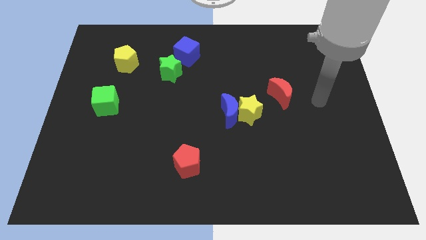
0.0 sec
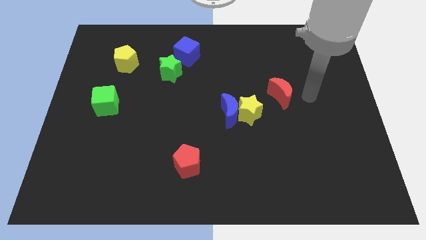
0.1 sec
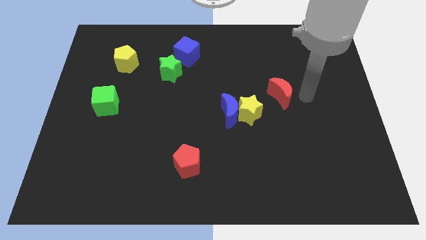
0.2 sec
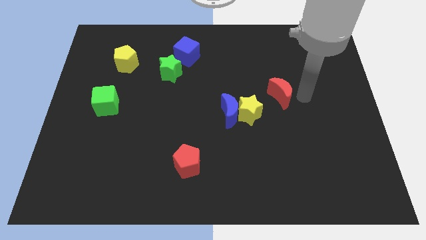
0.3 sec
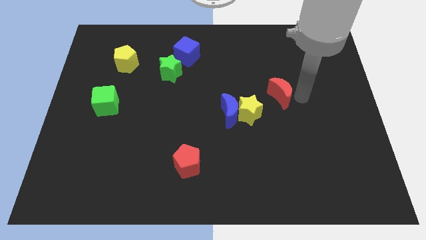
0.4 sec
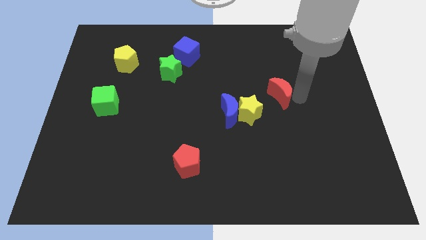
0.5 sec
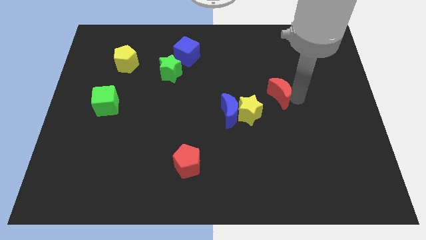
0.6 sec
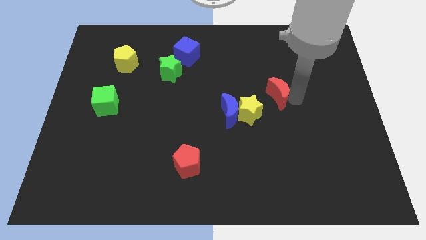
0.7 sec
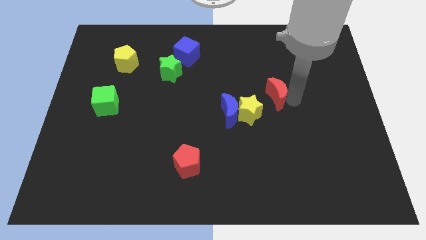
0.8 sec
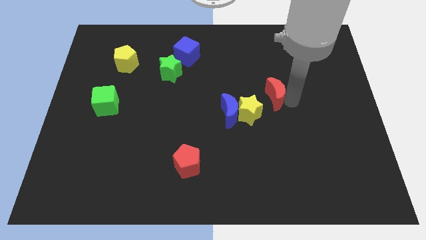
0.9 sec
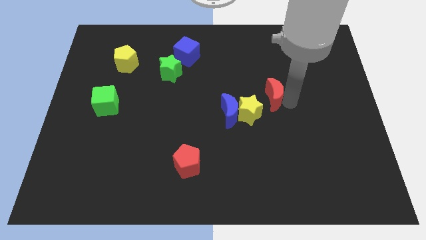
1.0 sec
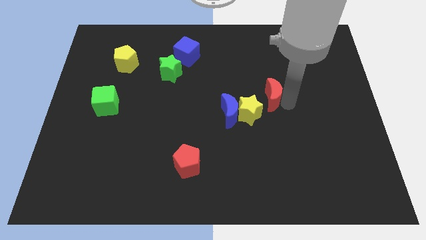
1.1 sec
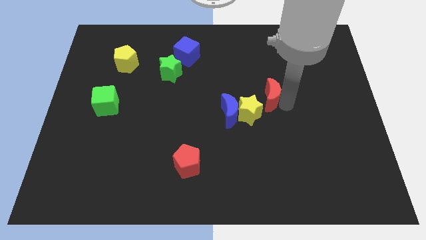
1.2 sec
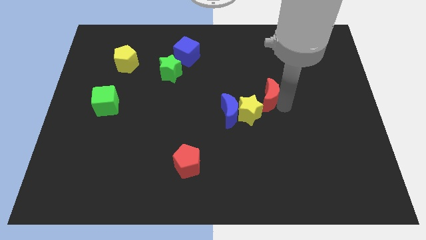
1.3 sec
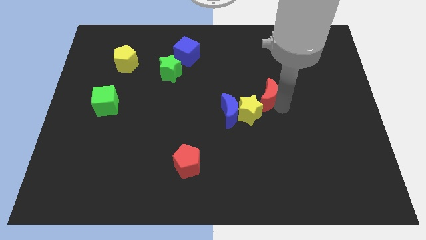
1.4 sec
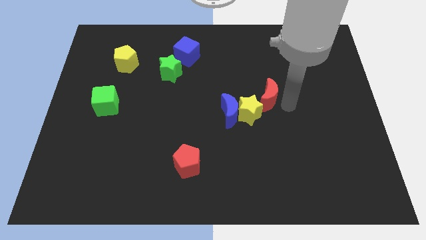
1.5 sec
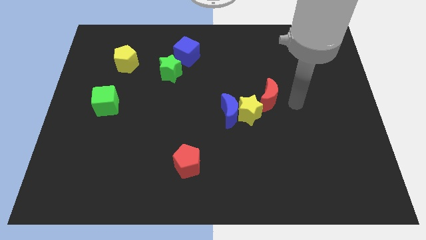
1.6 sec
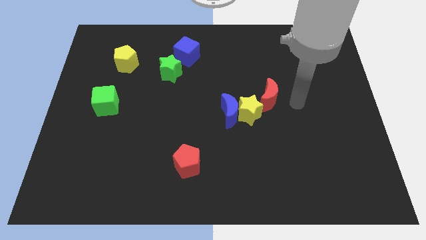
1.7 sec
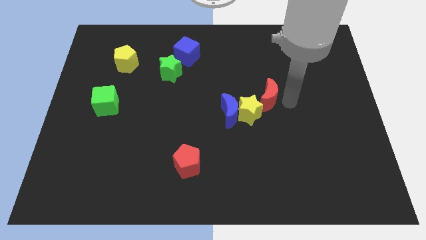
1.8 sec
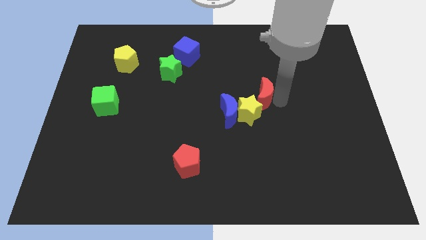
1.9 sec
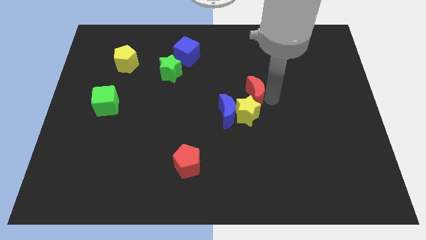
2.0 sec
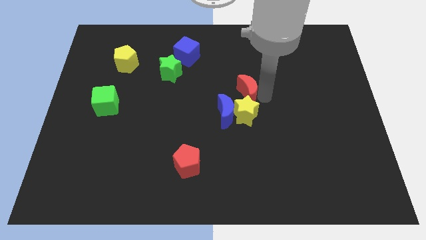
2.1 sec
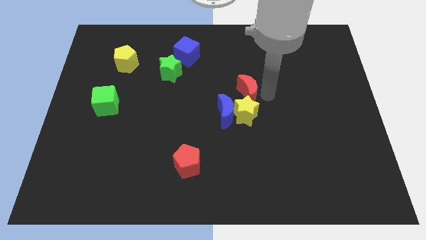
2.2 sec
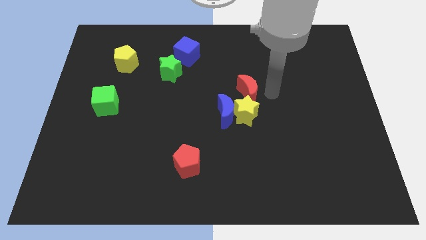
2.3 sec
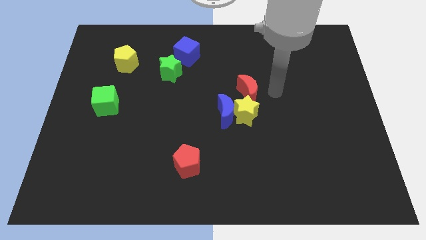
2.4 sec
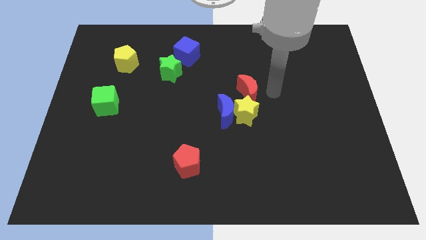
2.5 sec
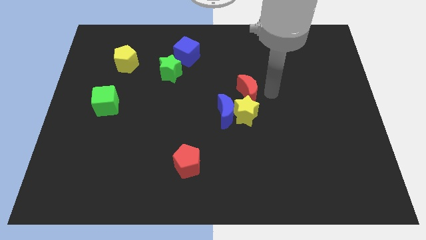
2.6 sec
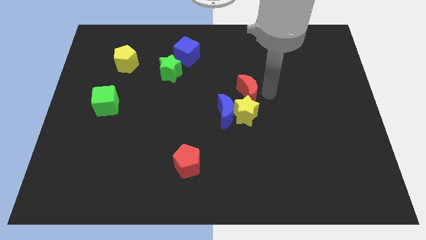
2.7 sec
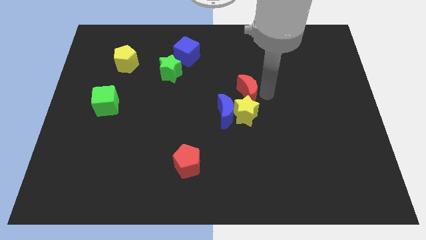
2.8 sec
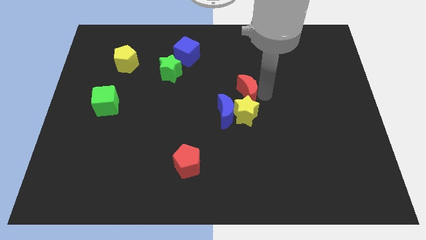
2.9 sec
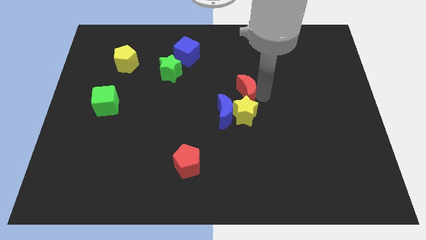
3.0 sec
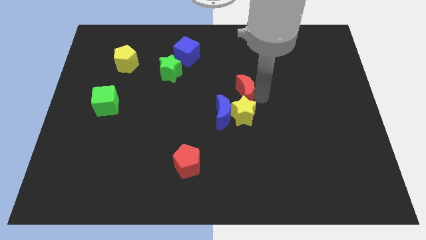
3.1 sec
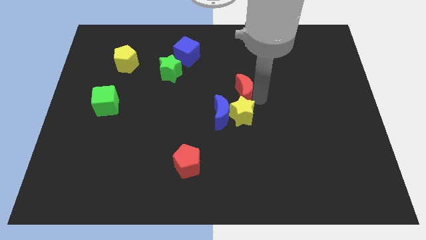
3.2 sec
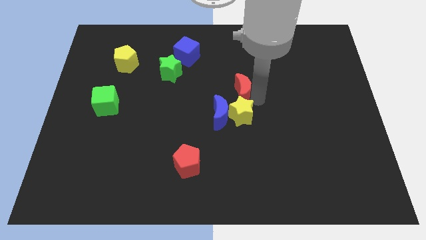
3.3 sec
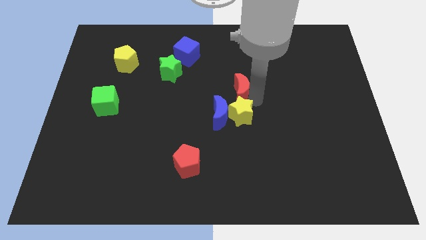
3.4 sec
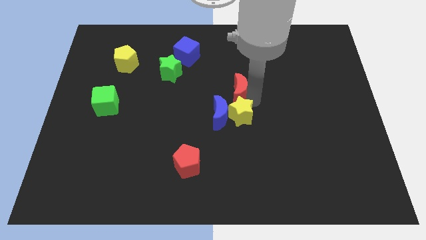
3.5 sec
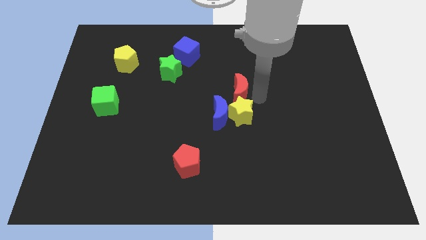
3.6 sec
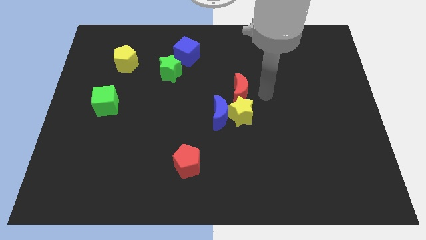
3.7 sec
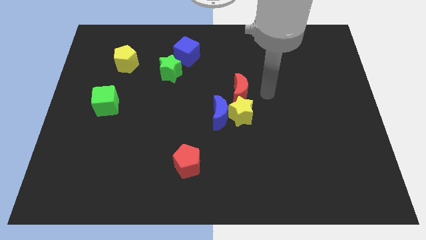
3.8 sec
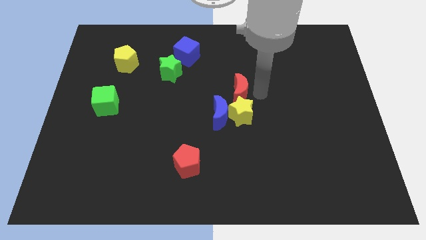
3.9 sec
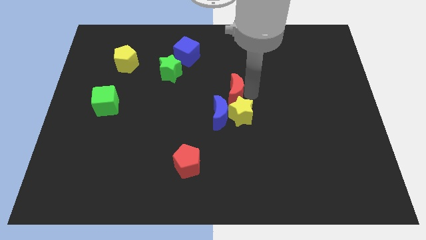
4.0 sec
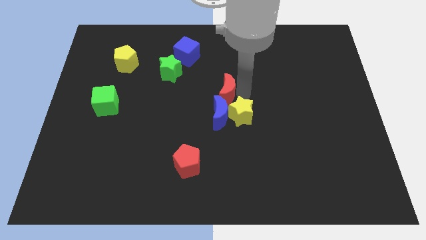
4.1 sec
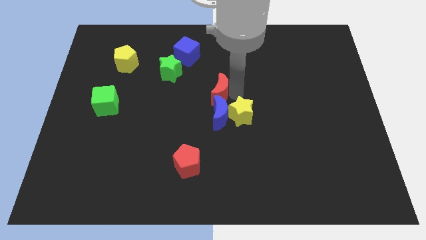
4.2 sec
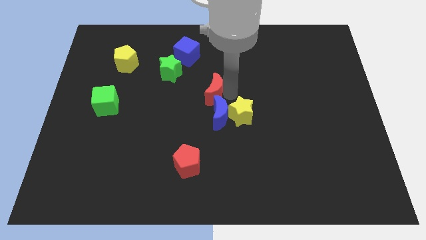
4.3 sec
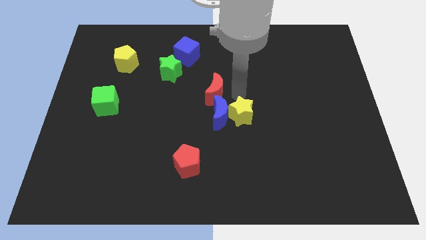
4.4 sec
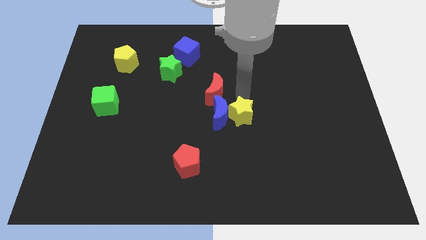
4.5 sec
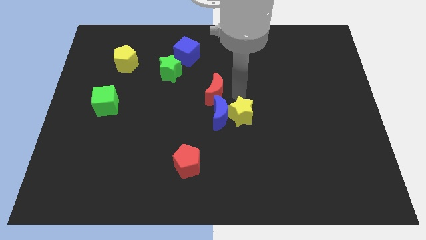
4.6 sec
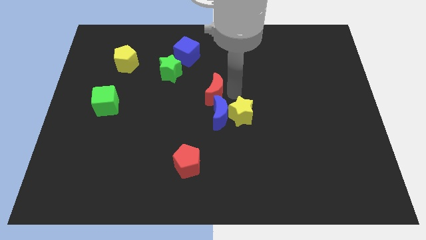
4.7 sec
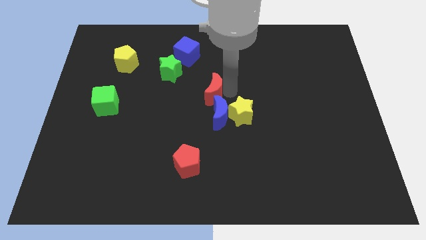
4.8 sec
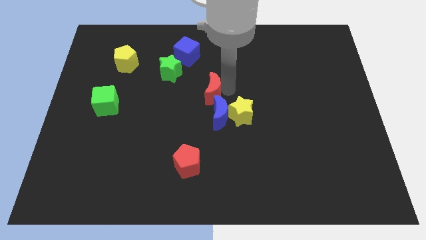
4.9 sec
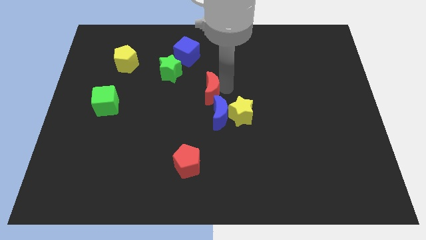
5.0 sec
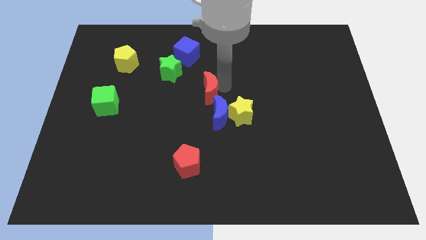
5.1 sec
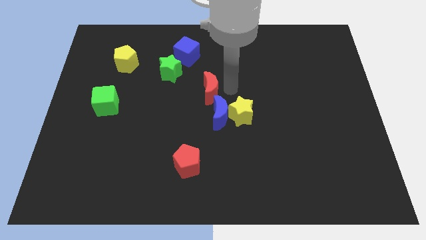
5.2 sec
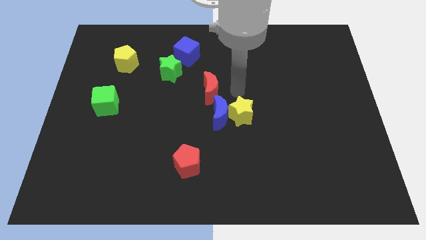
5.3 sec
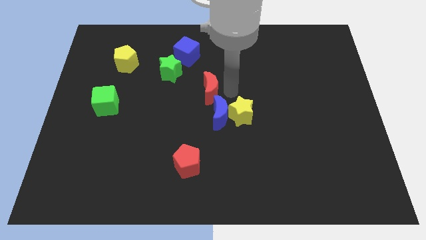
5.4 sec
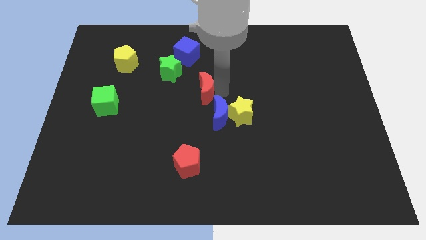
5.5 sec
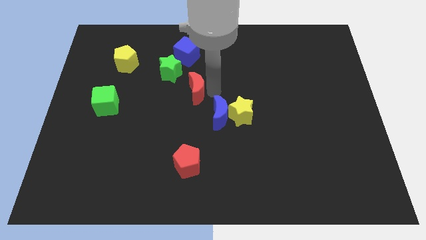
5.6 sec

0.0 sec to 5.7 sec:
push the red moon to the left

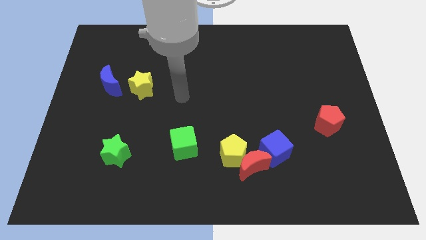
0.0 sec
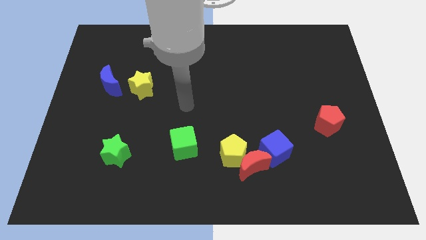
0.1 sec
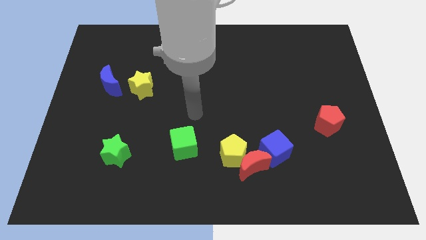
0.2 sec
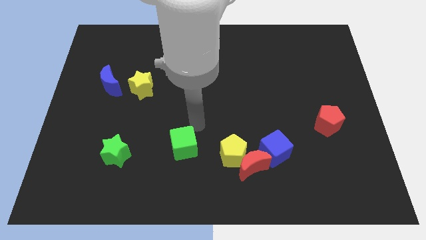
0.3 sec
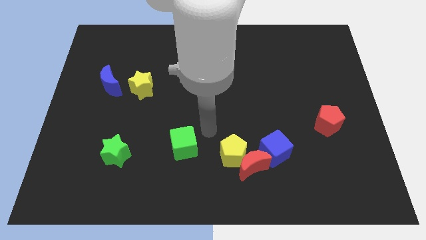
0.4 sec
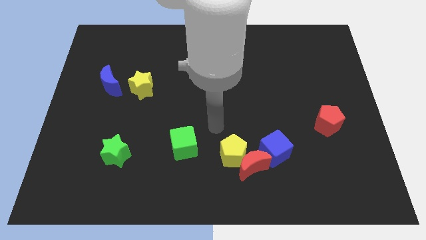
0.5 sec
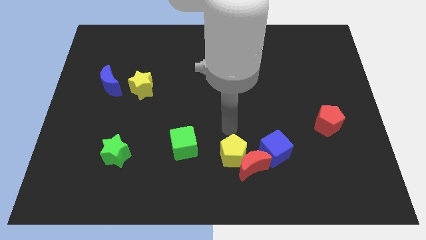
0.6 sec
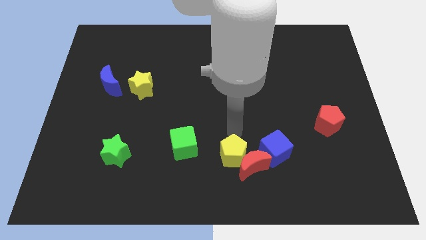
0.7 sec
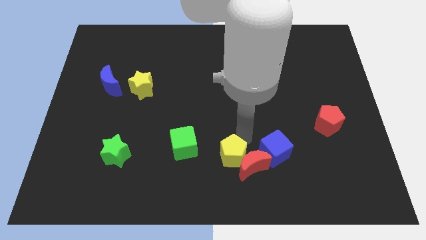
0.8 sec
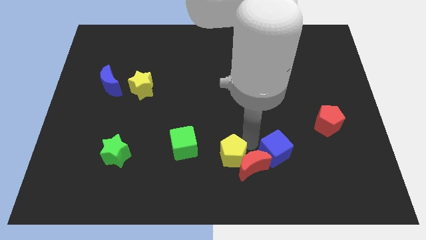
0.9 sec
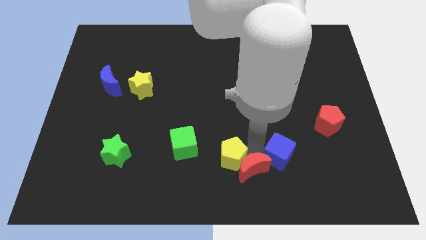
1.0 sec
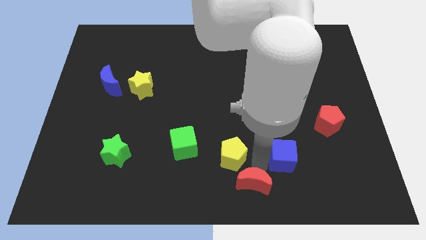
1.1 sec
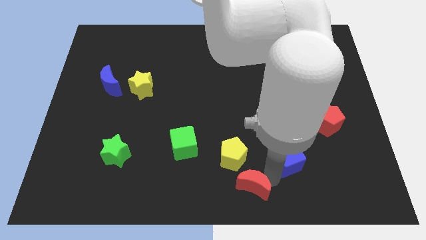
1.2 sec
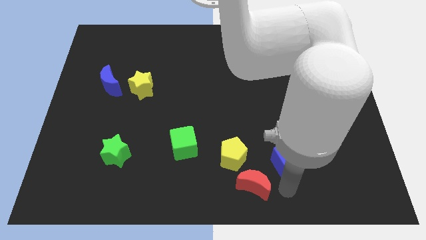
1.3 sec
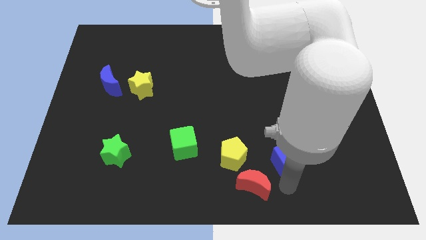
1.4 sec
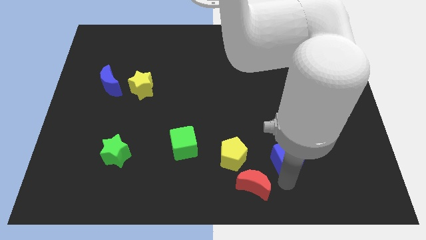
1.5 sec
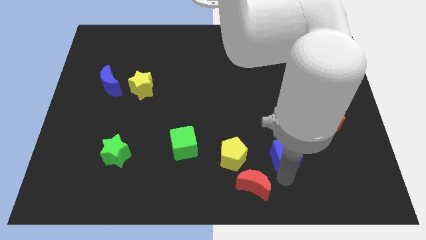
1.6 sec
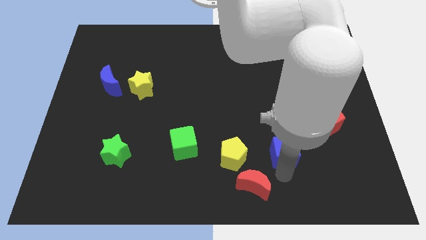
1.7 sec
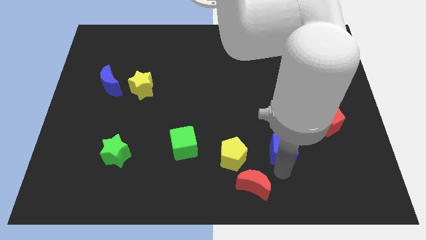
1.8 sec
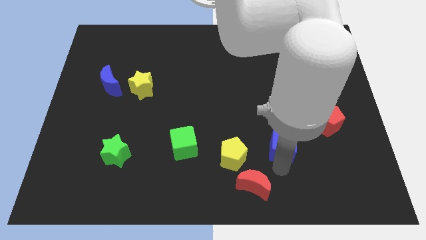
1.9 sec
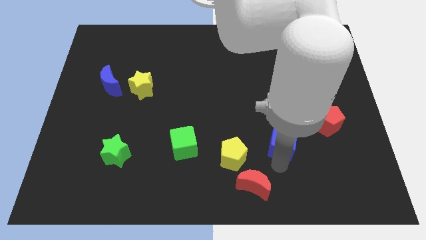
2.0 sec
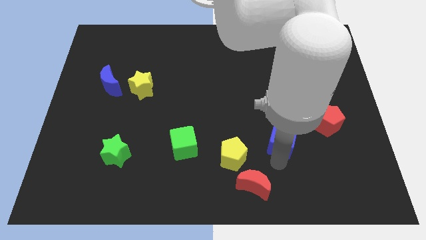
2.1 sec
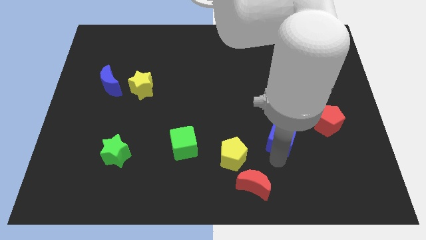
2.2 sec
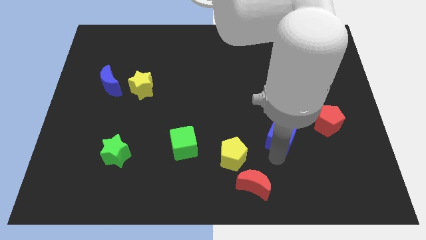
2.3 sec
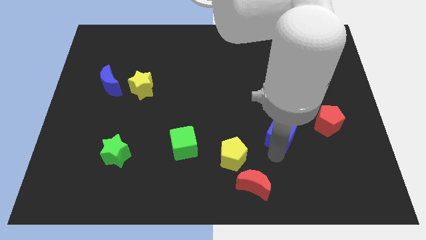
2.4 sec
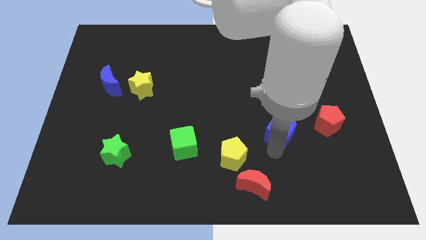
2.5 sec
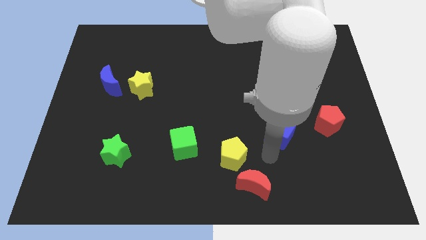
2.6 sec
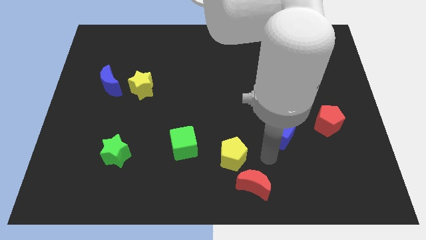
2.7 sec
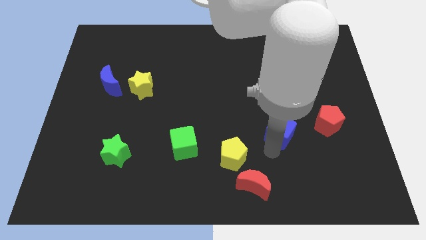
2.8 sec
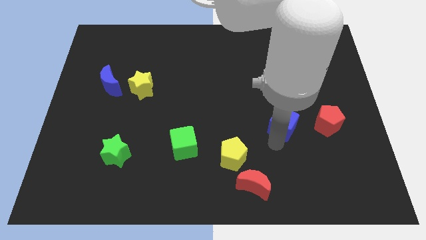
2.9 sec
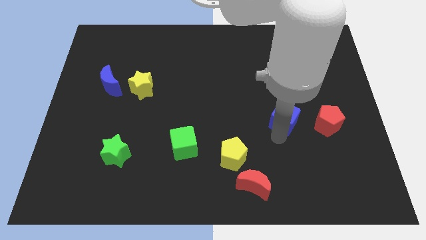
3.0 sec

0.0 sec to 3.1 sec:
push the blue cube diagonally up and right somewhat
